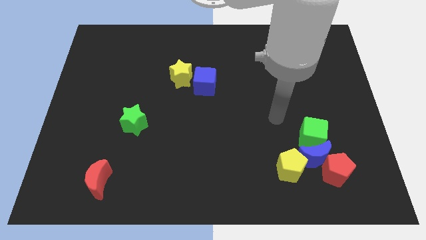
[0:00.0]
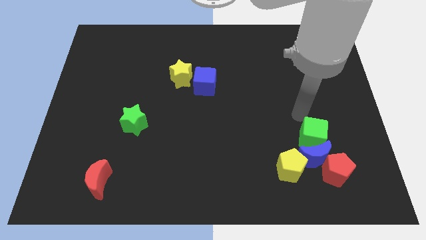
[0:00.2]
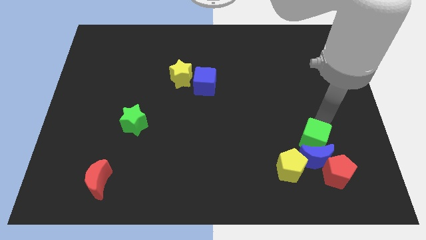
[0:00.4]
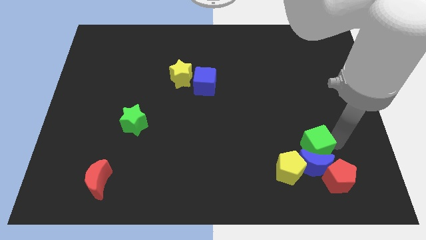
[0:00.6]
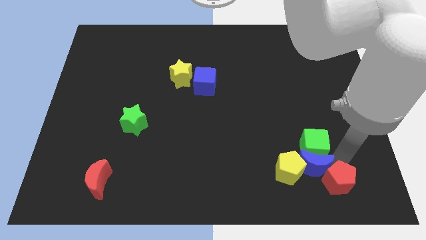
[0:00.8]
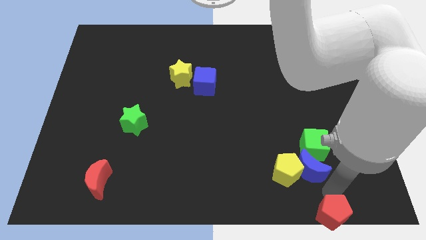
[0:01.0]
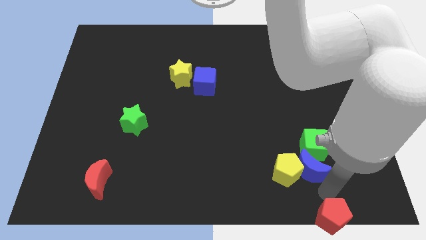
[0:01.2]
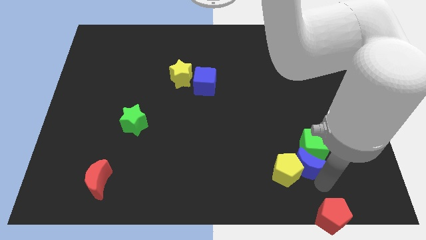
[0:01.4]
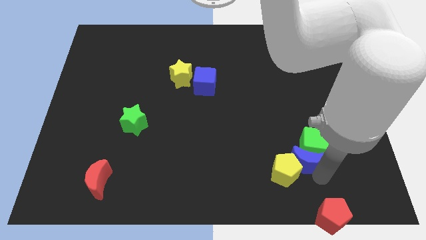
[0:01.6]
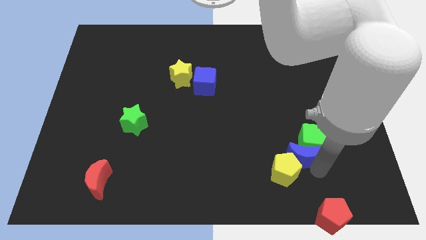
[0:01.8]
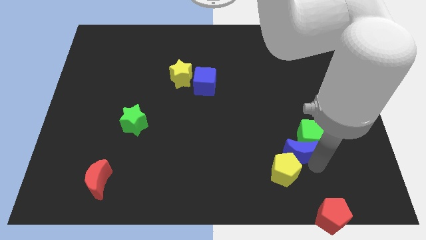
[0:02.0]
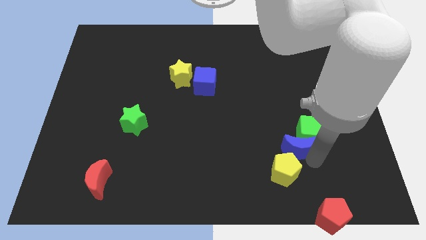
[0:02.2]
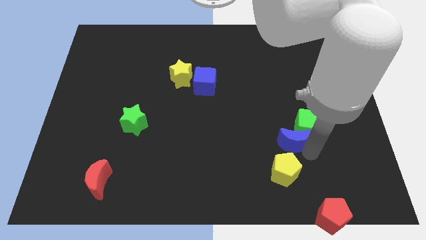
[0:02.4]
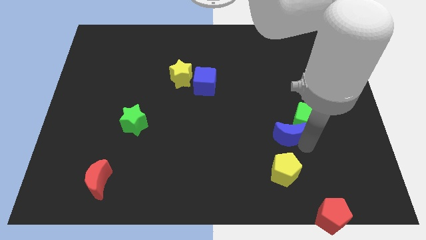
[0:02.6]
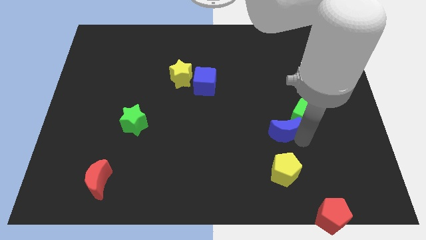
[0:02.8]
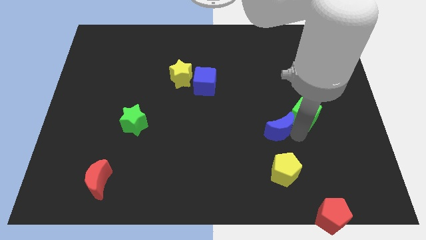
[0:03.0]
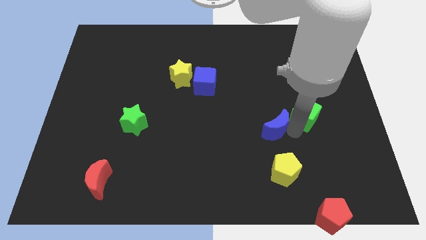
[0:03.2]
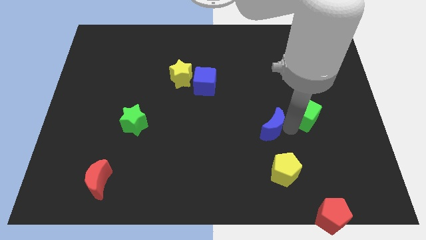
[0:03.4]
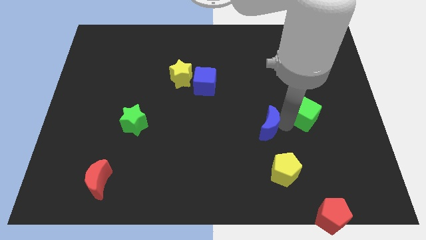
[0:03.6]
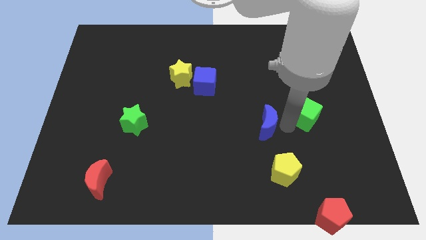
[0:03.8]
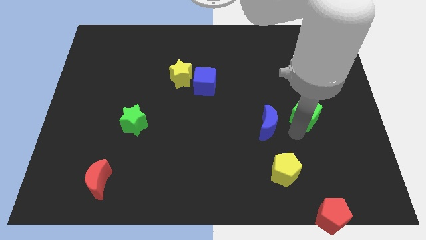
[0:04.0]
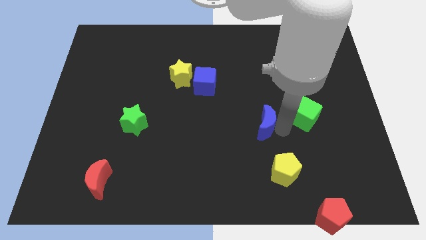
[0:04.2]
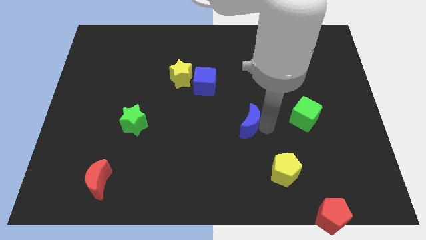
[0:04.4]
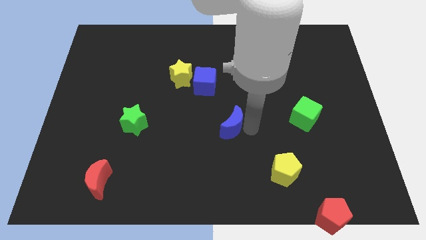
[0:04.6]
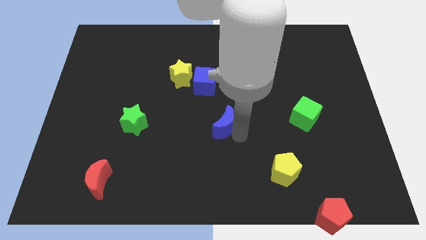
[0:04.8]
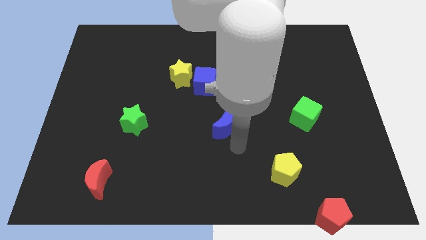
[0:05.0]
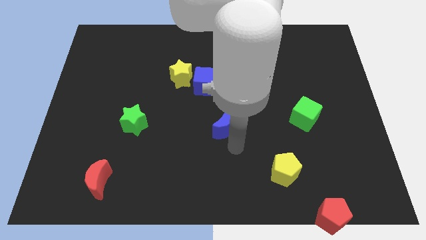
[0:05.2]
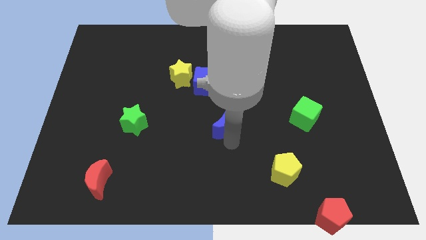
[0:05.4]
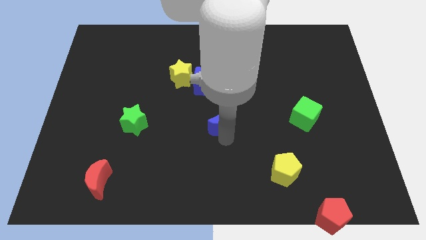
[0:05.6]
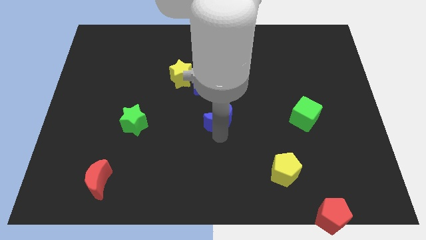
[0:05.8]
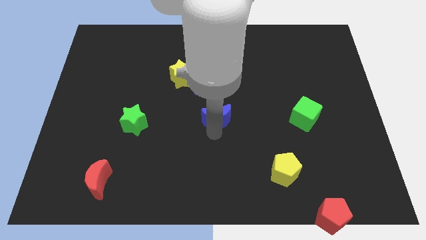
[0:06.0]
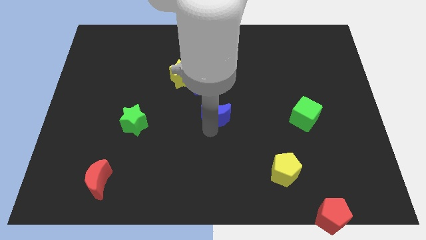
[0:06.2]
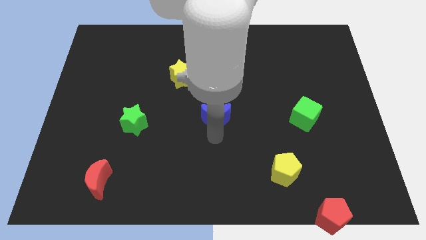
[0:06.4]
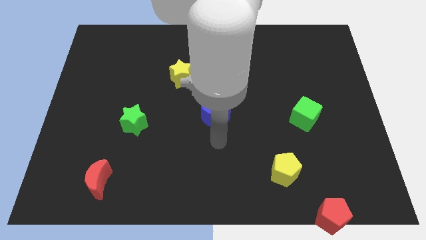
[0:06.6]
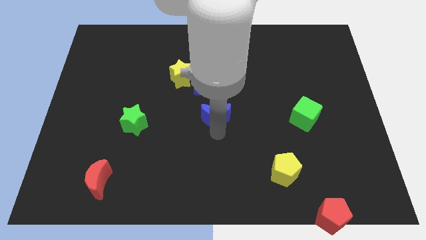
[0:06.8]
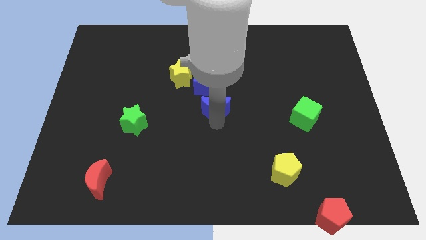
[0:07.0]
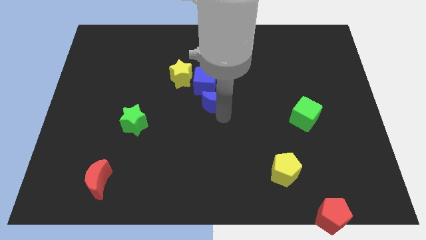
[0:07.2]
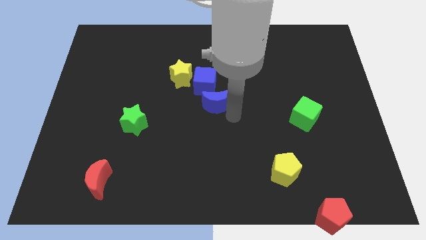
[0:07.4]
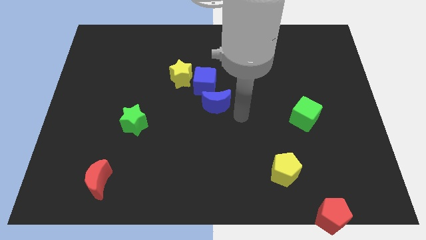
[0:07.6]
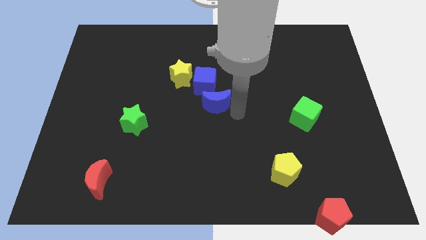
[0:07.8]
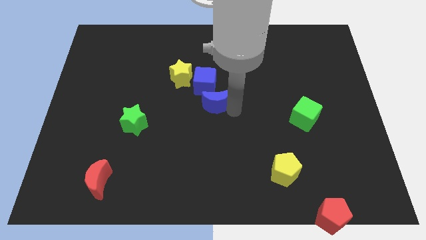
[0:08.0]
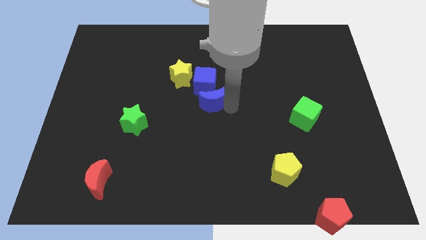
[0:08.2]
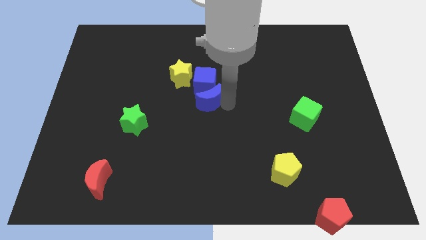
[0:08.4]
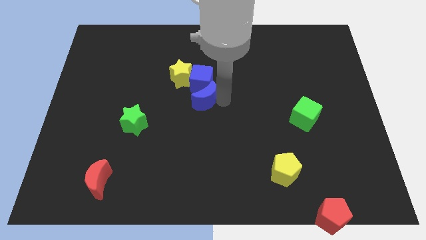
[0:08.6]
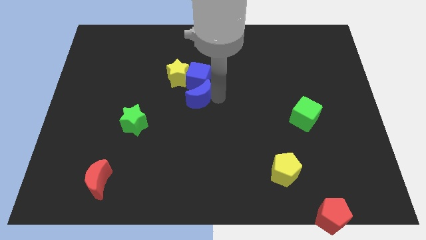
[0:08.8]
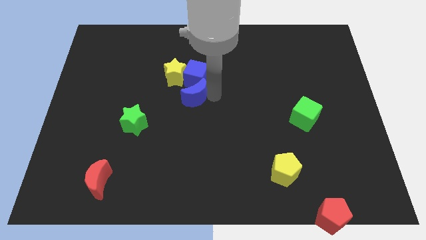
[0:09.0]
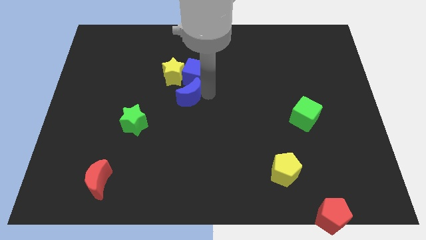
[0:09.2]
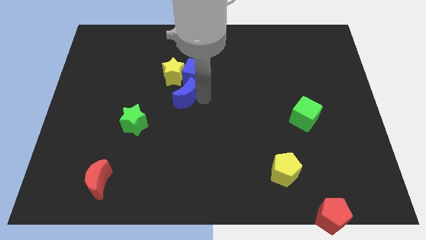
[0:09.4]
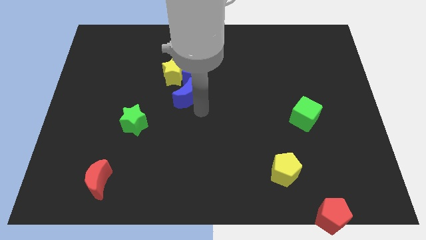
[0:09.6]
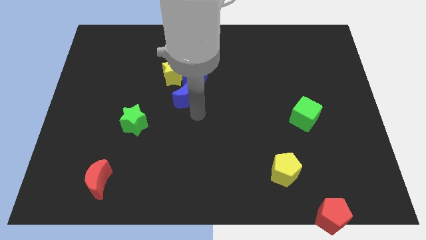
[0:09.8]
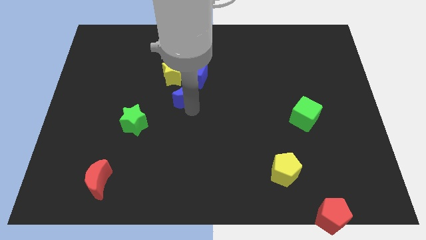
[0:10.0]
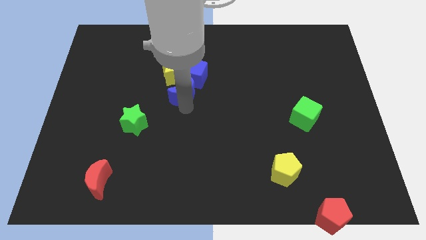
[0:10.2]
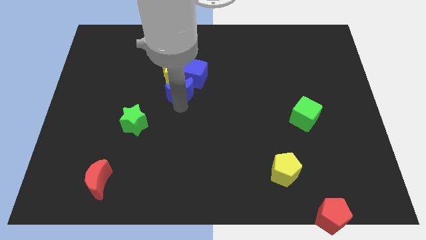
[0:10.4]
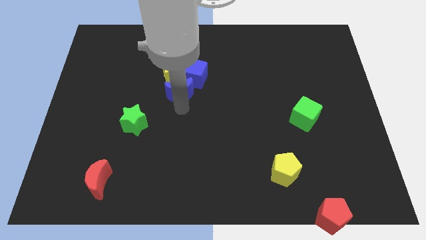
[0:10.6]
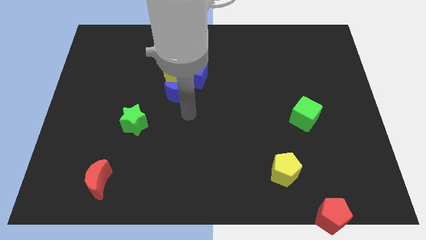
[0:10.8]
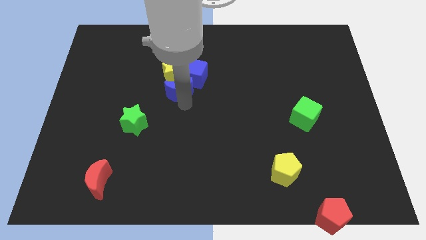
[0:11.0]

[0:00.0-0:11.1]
push the blue moon close to the yellow star

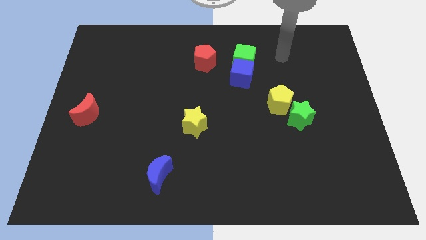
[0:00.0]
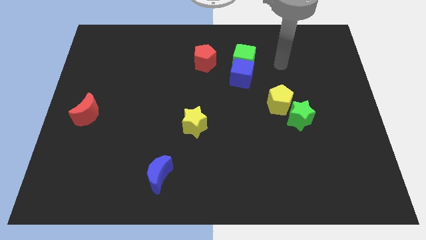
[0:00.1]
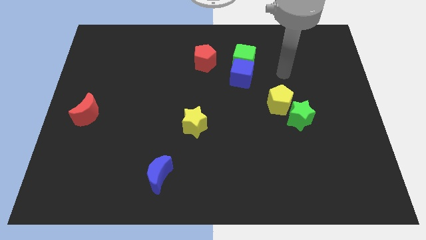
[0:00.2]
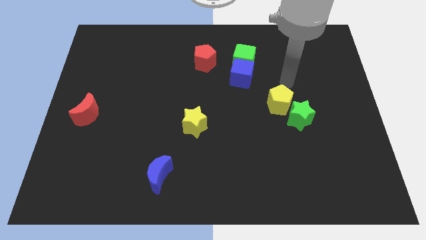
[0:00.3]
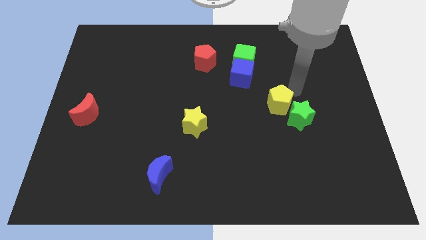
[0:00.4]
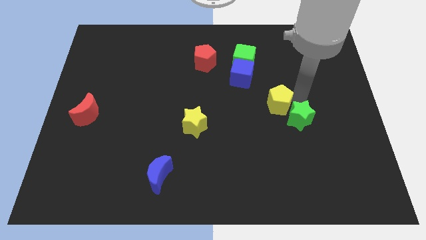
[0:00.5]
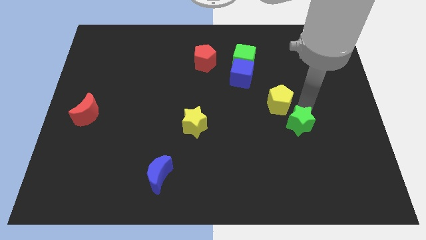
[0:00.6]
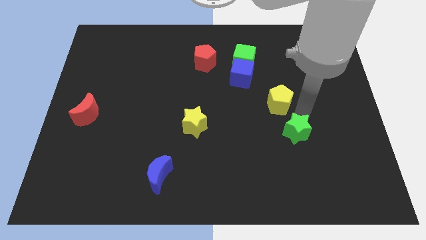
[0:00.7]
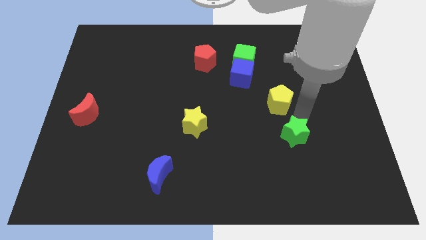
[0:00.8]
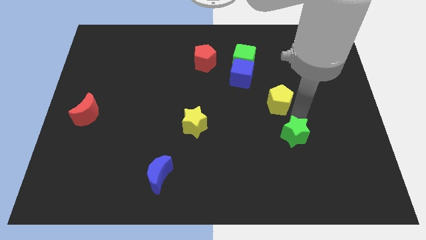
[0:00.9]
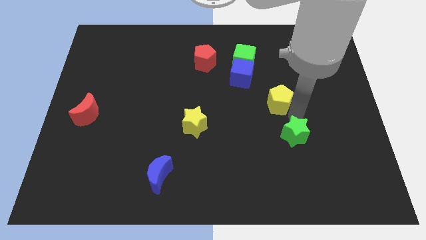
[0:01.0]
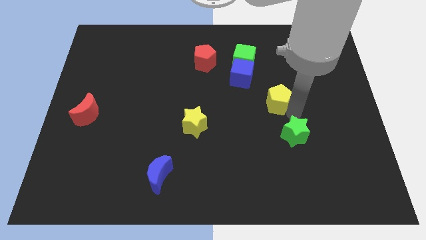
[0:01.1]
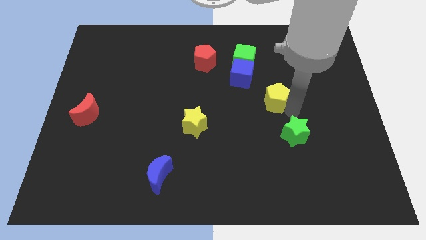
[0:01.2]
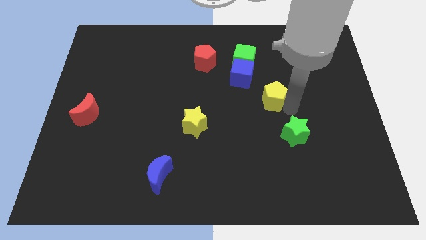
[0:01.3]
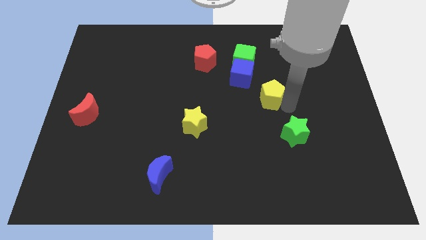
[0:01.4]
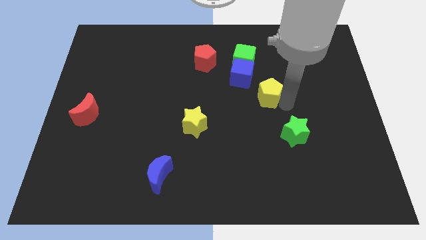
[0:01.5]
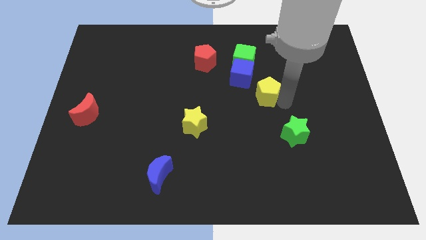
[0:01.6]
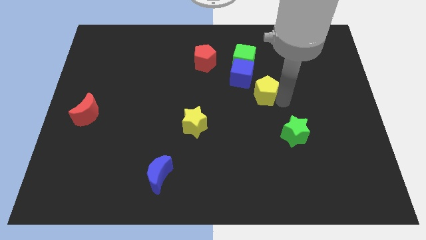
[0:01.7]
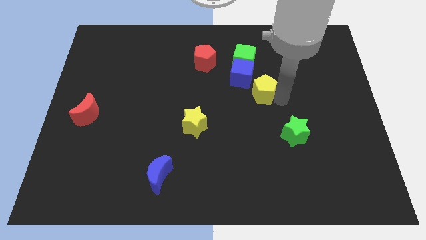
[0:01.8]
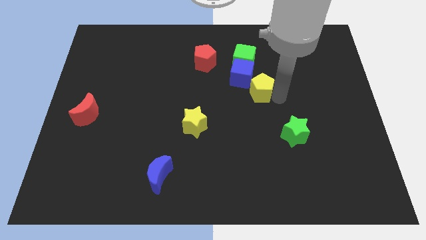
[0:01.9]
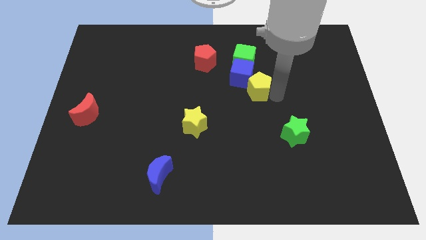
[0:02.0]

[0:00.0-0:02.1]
push the yellow pentagon to the blue cube
